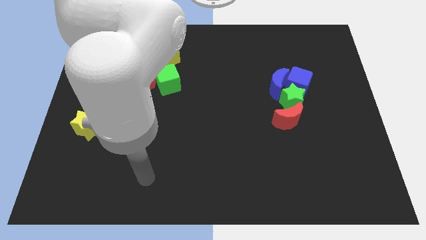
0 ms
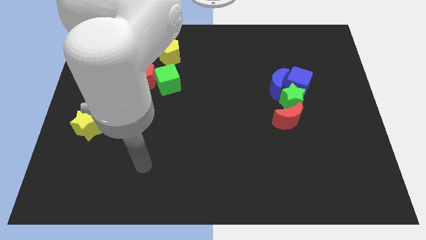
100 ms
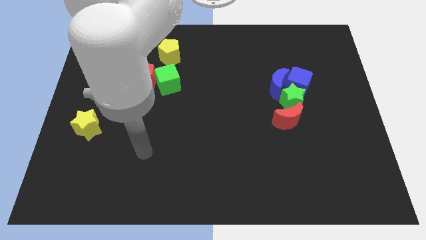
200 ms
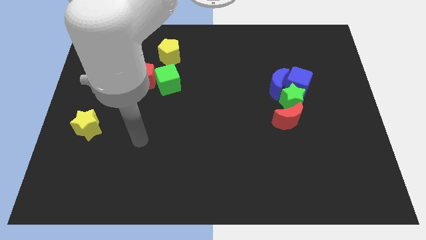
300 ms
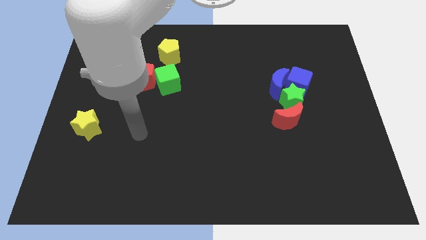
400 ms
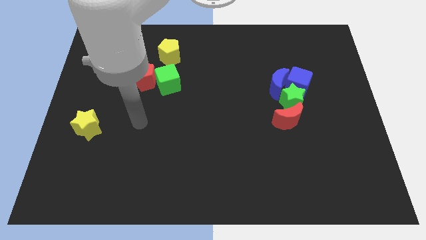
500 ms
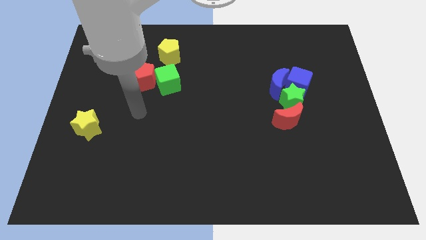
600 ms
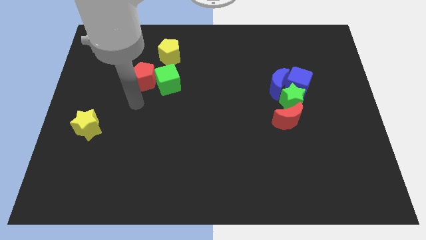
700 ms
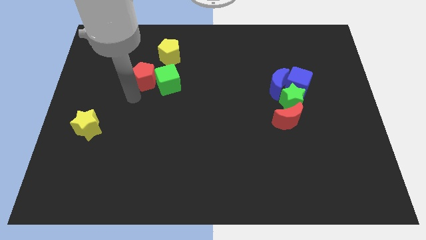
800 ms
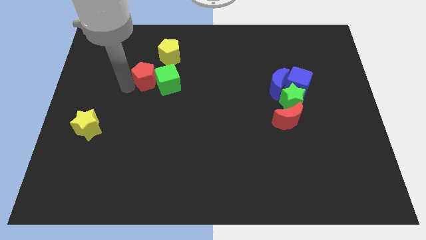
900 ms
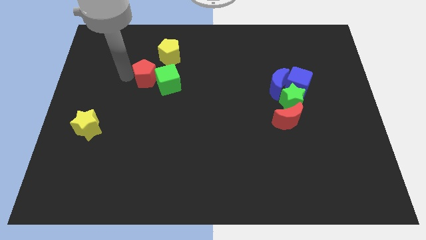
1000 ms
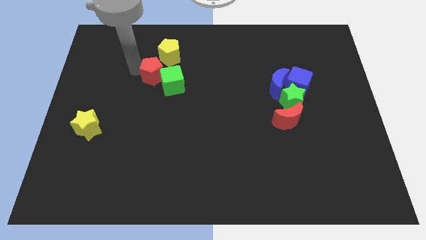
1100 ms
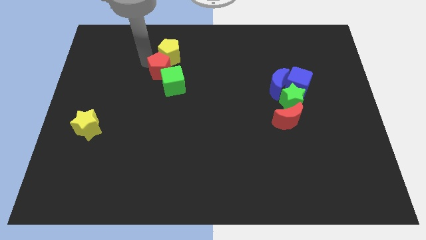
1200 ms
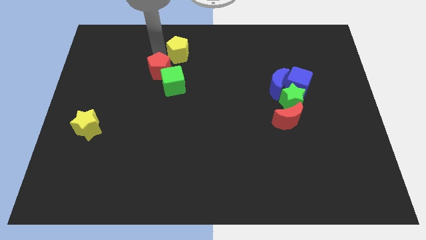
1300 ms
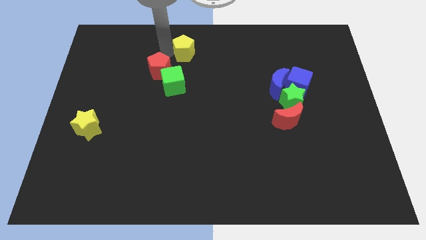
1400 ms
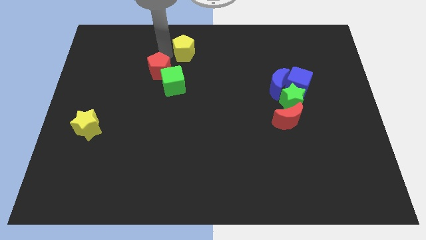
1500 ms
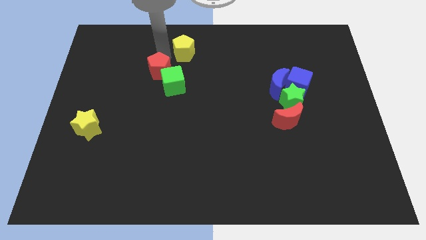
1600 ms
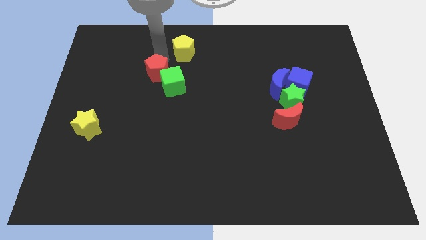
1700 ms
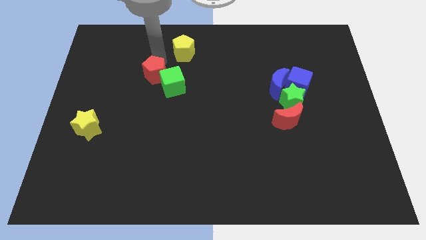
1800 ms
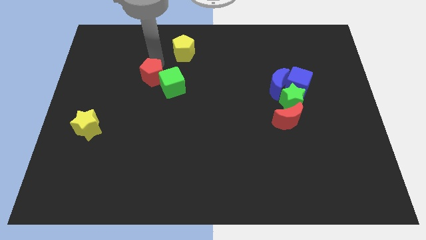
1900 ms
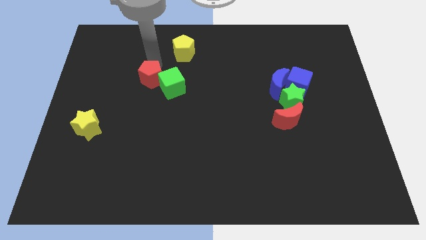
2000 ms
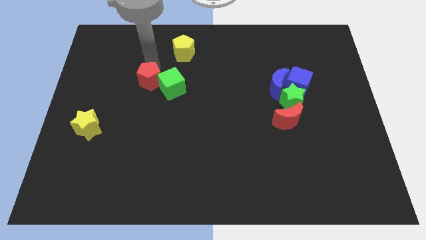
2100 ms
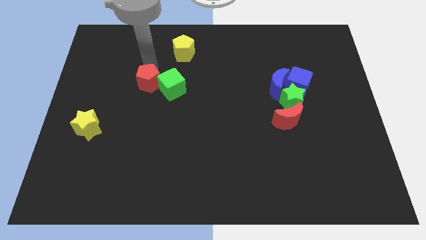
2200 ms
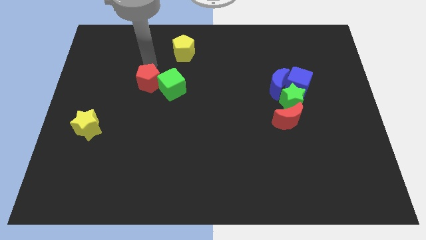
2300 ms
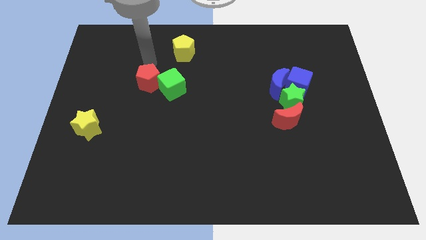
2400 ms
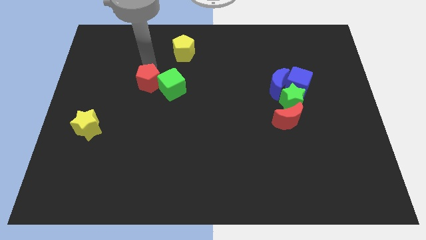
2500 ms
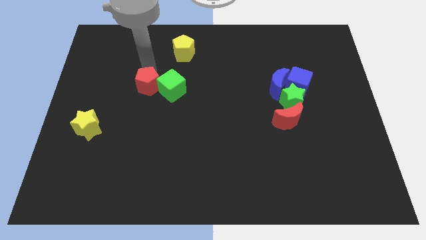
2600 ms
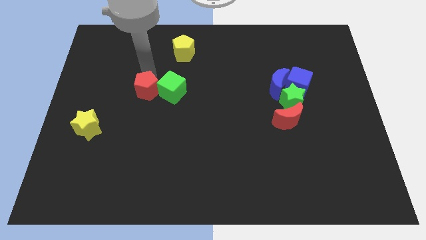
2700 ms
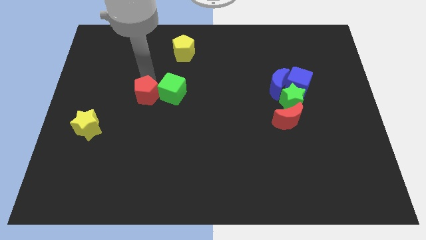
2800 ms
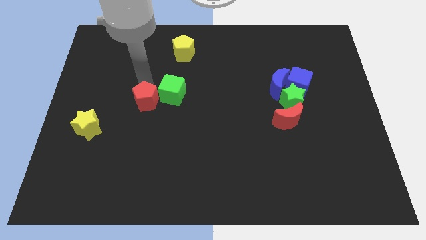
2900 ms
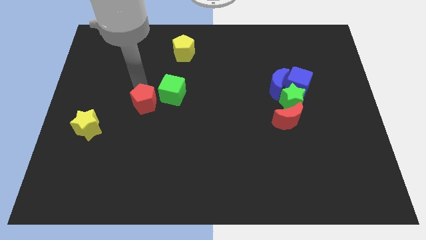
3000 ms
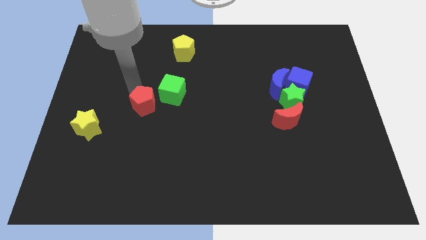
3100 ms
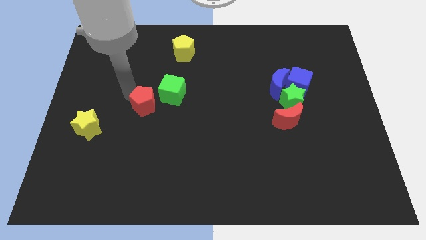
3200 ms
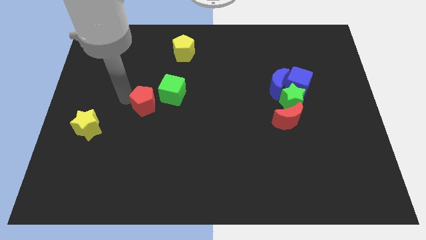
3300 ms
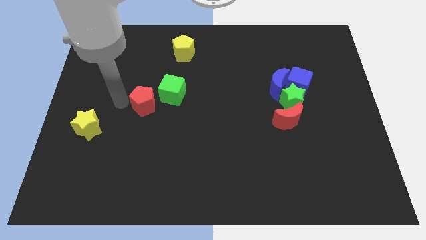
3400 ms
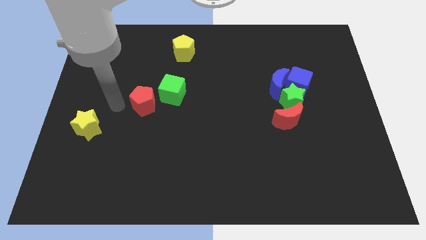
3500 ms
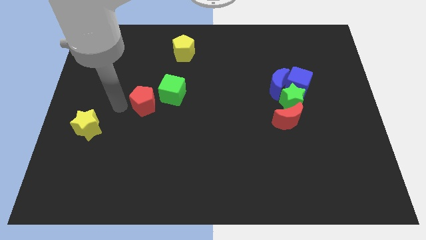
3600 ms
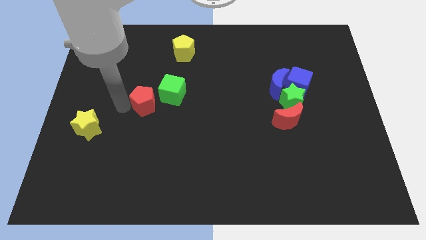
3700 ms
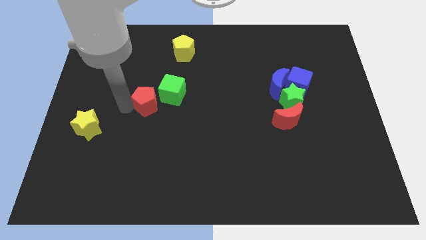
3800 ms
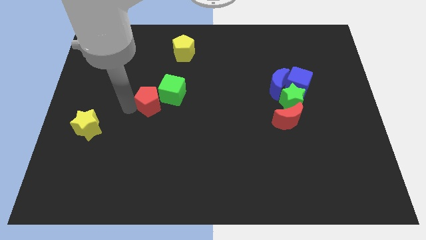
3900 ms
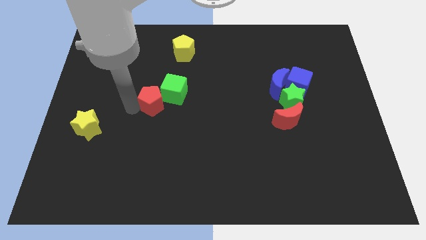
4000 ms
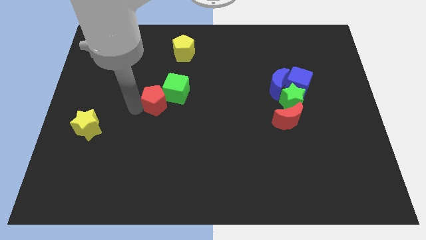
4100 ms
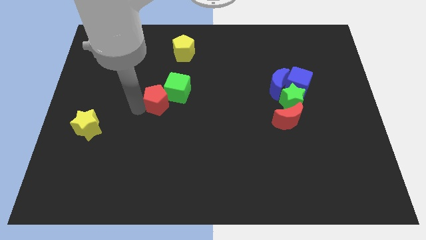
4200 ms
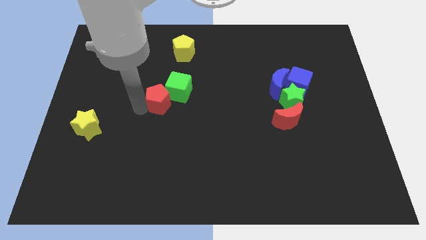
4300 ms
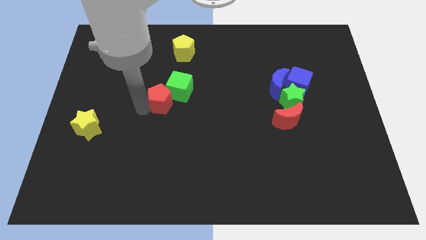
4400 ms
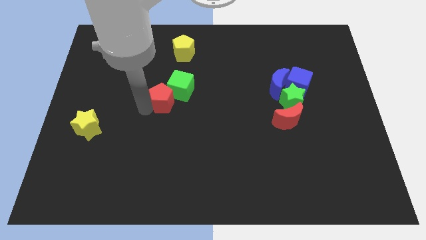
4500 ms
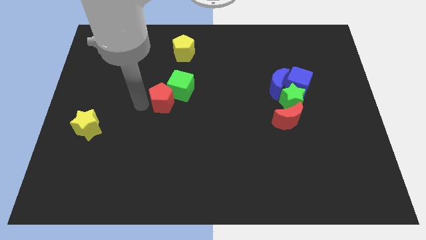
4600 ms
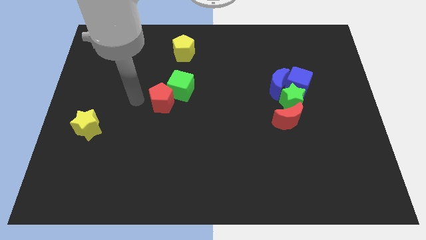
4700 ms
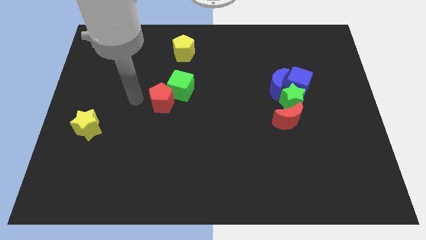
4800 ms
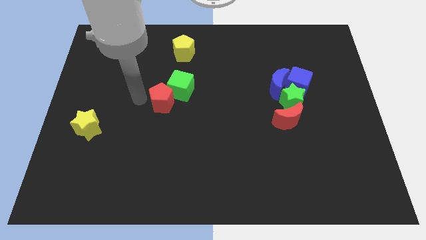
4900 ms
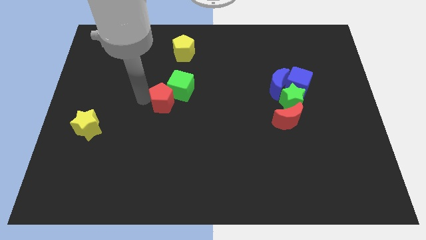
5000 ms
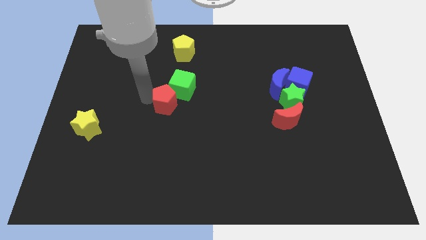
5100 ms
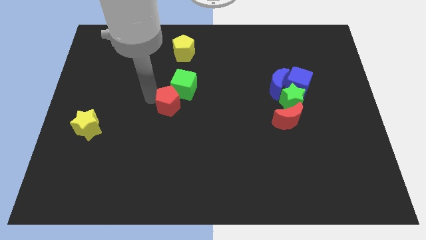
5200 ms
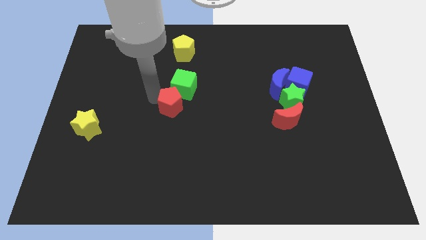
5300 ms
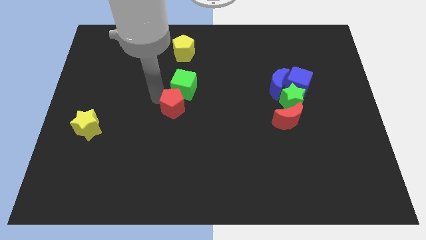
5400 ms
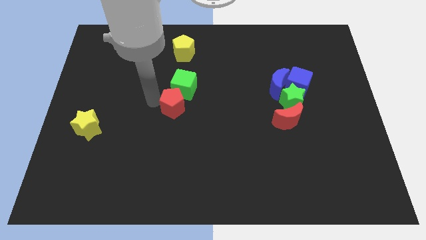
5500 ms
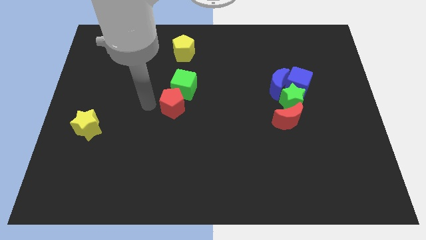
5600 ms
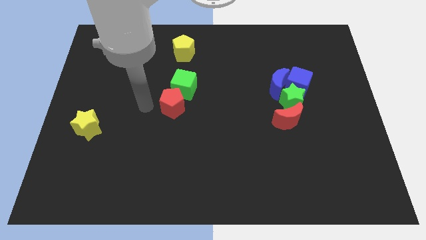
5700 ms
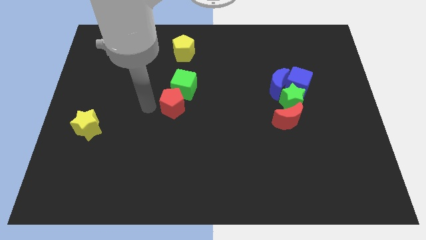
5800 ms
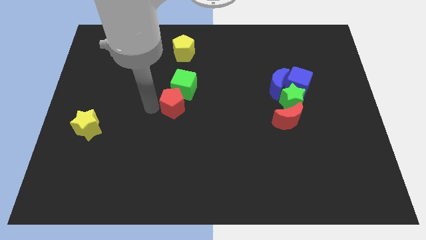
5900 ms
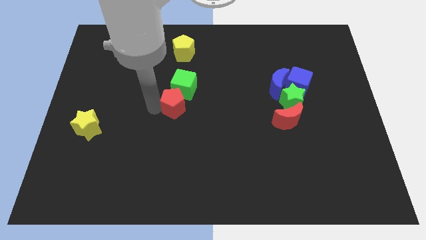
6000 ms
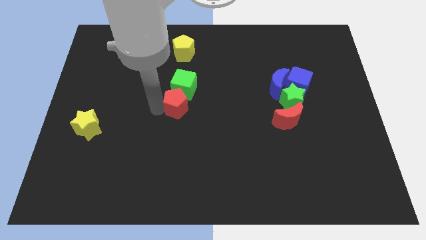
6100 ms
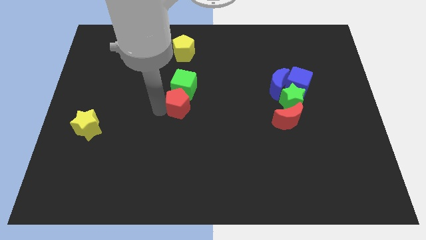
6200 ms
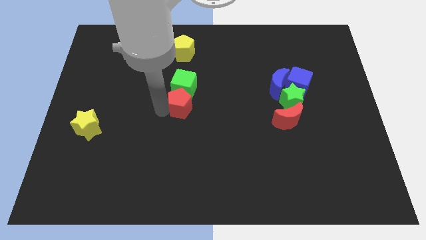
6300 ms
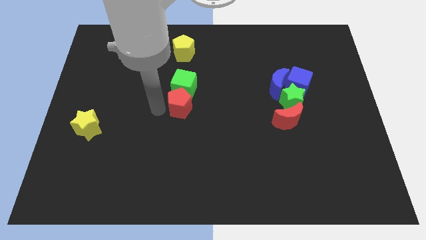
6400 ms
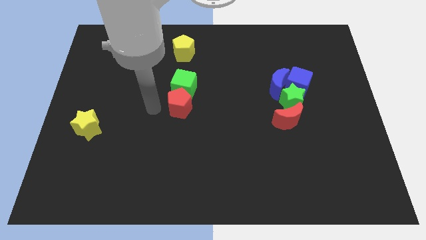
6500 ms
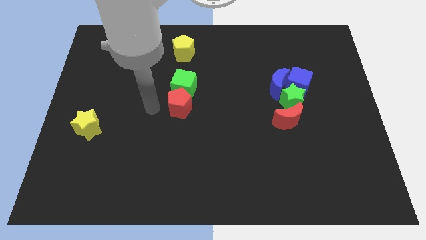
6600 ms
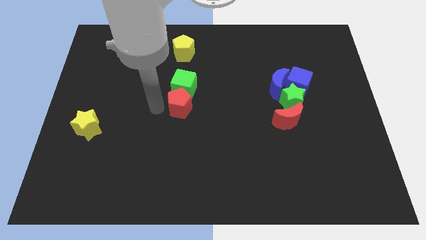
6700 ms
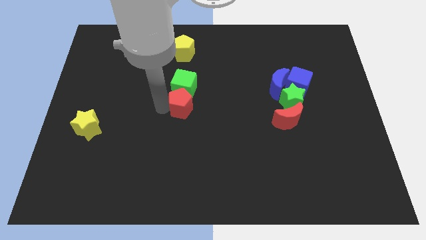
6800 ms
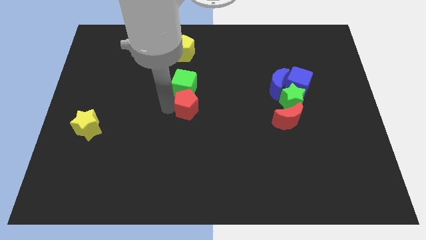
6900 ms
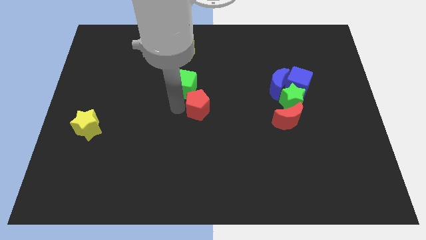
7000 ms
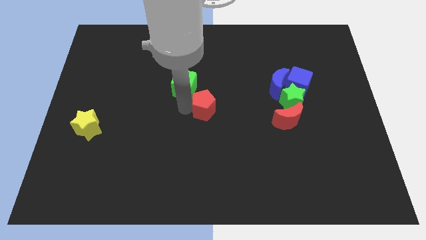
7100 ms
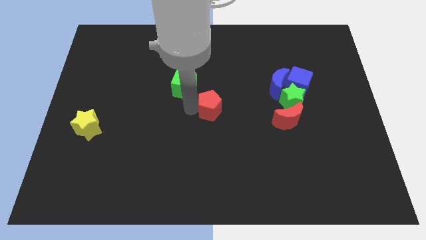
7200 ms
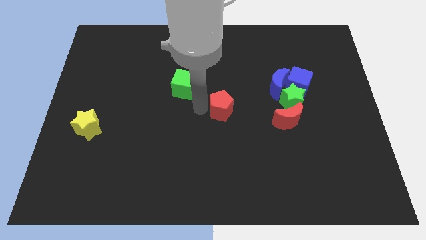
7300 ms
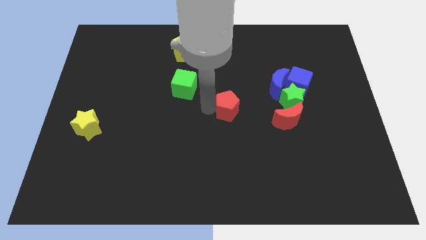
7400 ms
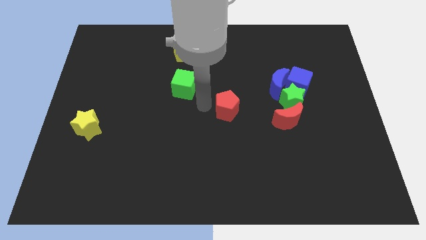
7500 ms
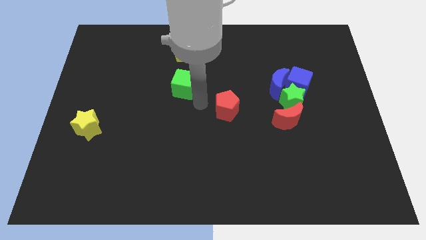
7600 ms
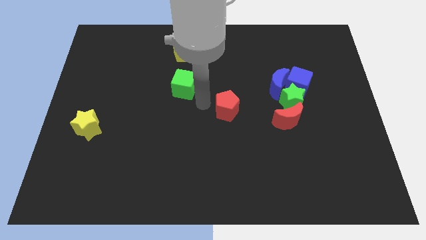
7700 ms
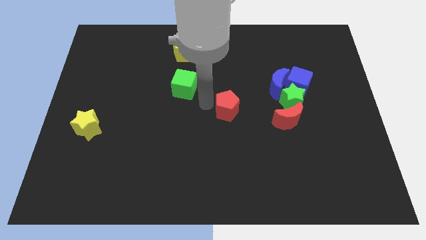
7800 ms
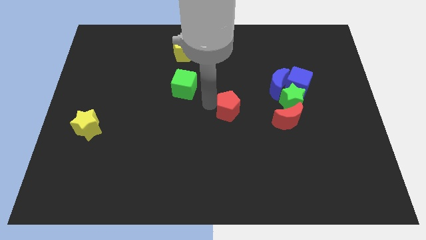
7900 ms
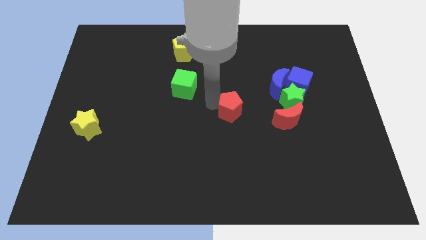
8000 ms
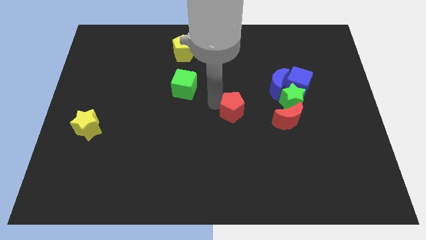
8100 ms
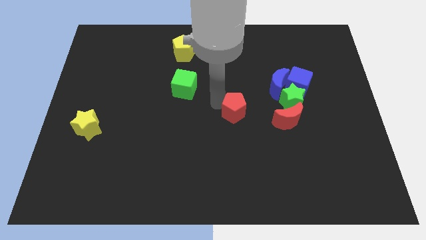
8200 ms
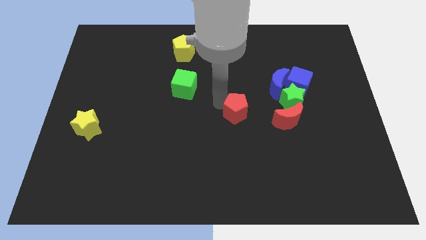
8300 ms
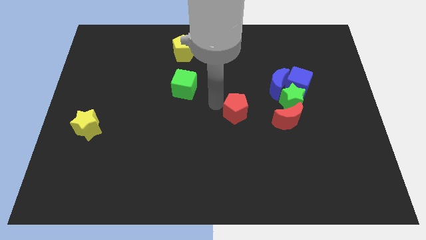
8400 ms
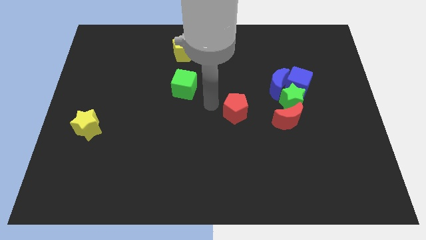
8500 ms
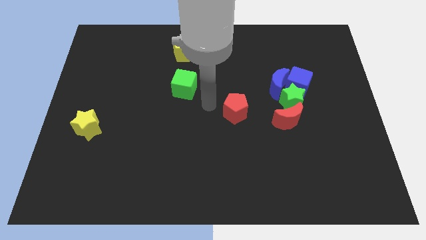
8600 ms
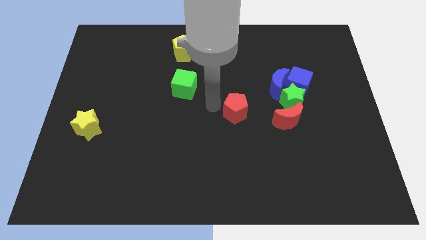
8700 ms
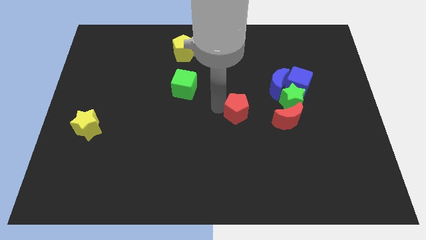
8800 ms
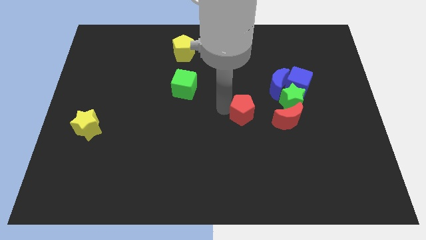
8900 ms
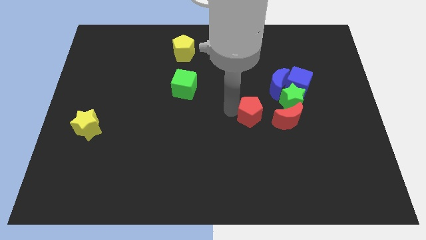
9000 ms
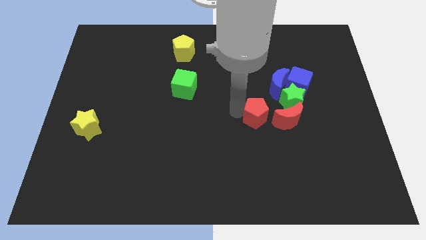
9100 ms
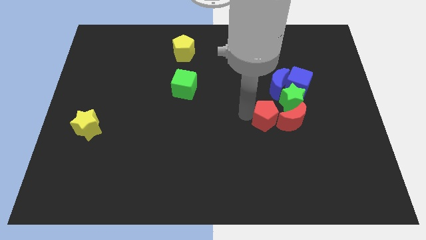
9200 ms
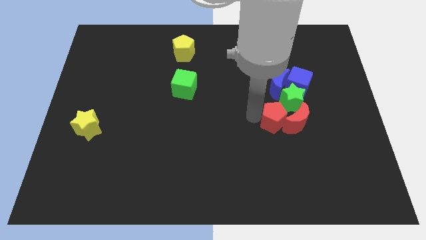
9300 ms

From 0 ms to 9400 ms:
move the red pentagon next to the red moon
